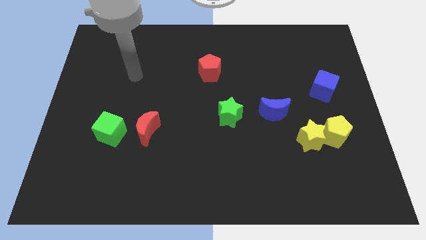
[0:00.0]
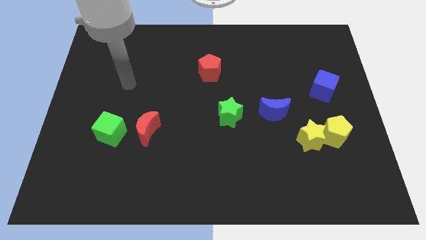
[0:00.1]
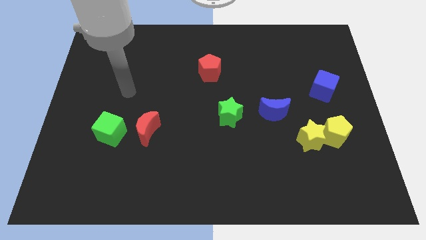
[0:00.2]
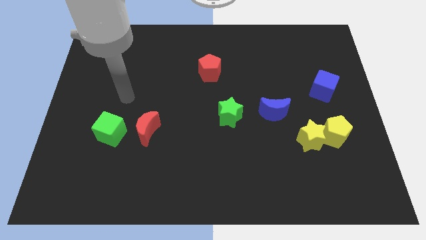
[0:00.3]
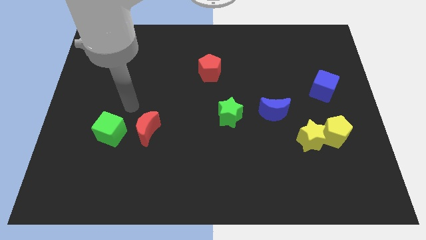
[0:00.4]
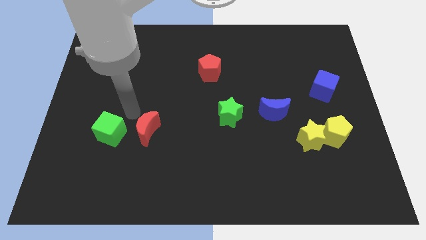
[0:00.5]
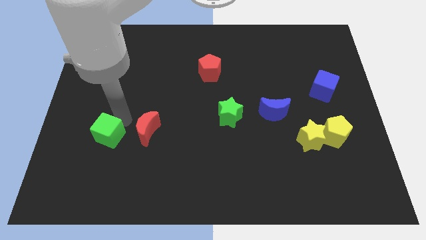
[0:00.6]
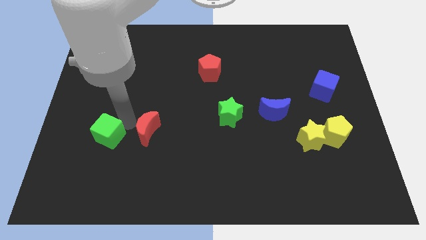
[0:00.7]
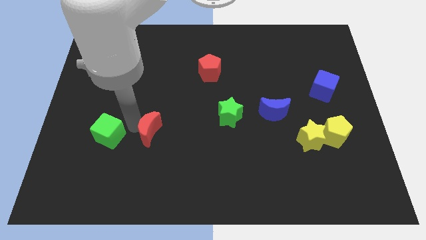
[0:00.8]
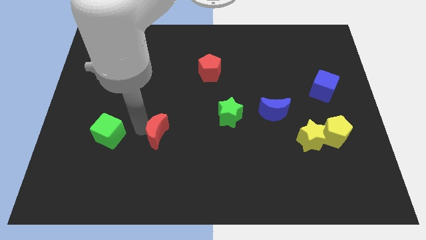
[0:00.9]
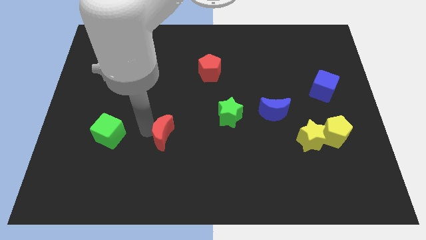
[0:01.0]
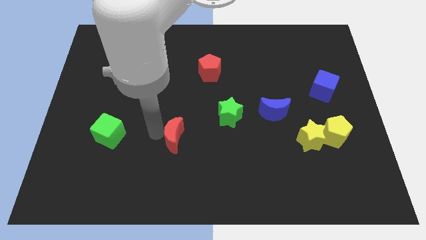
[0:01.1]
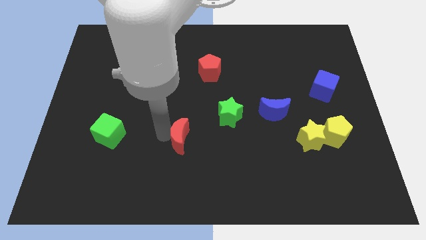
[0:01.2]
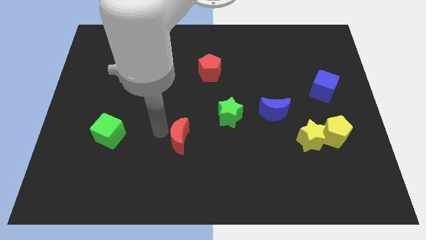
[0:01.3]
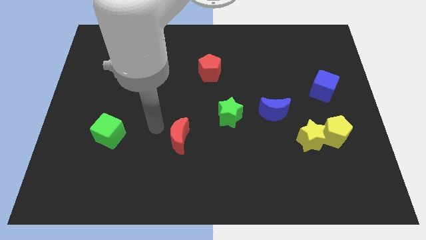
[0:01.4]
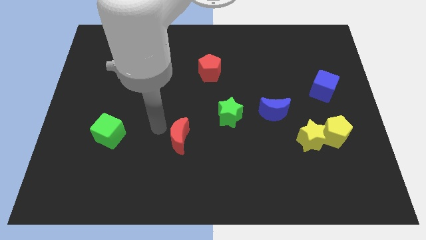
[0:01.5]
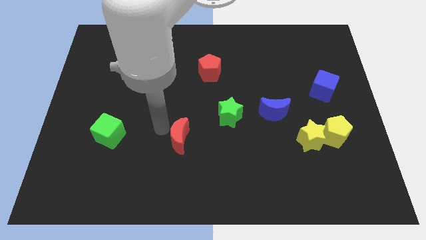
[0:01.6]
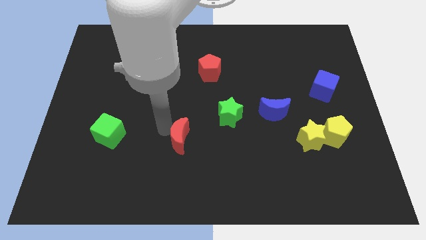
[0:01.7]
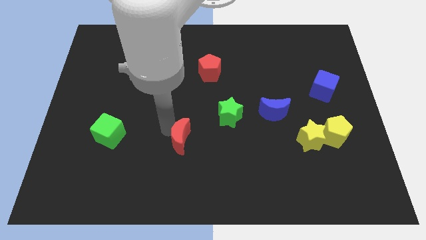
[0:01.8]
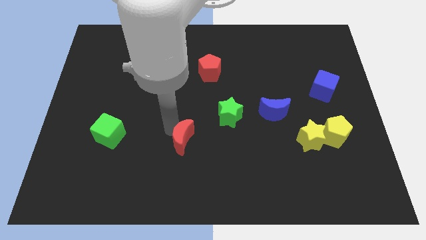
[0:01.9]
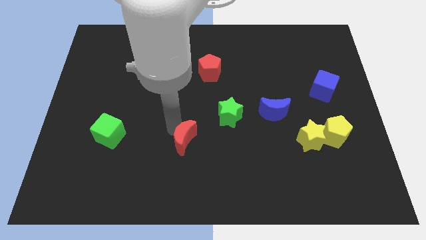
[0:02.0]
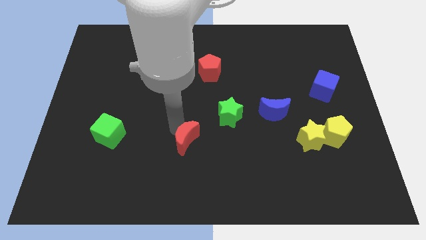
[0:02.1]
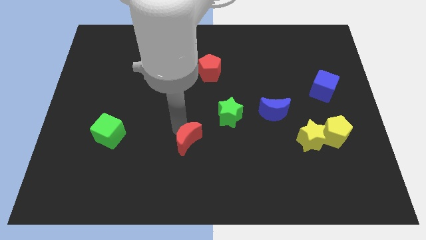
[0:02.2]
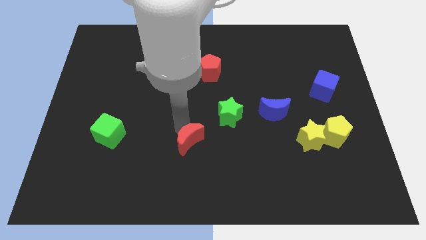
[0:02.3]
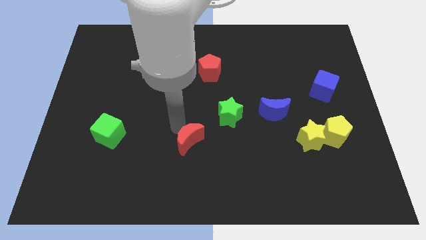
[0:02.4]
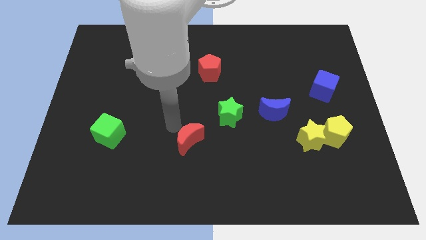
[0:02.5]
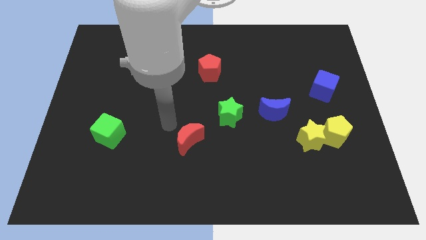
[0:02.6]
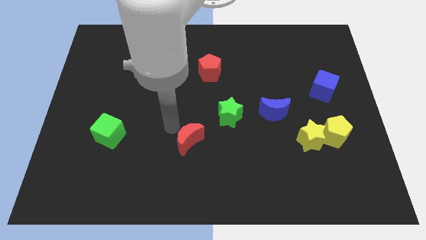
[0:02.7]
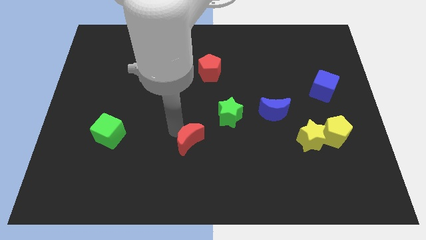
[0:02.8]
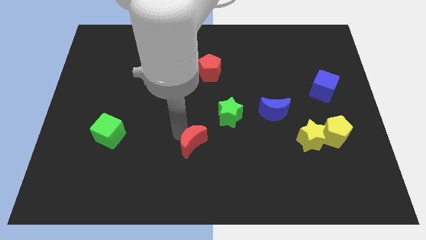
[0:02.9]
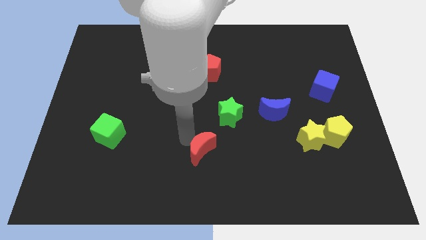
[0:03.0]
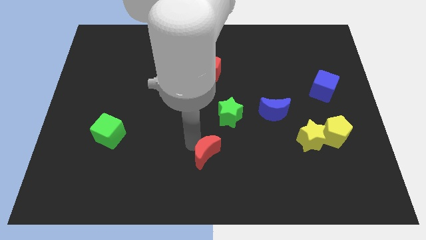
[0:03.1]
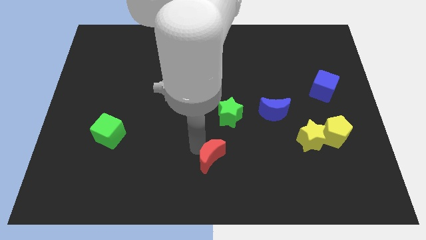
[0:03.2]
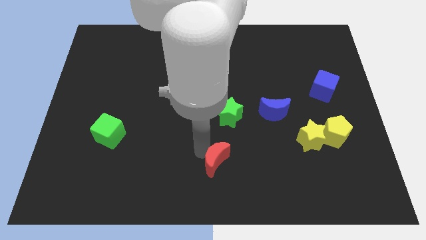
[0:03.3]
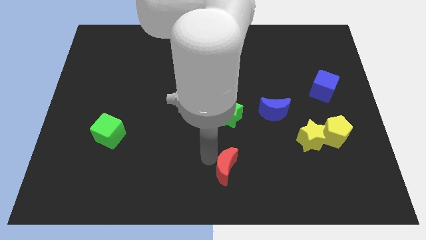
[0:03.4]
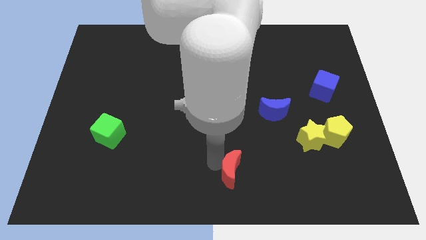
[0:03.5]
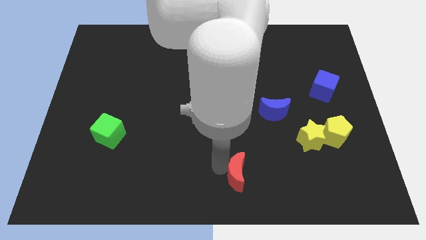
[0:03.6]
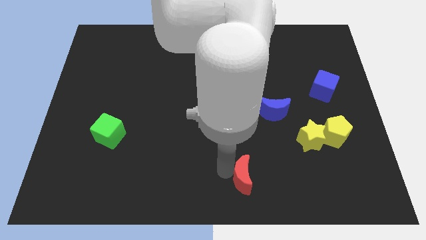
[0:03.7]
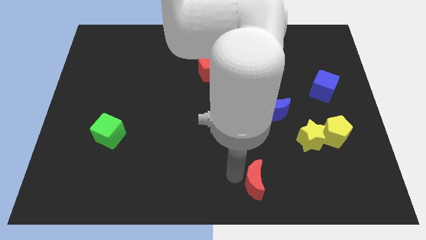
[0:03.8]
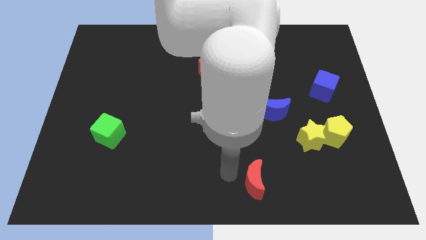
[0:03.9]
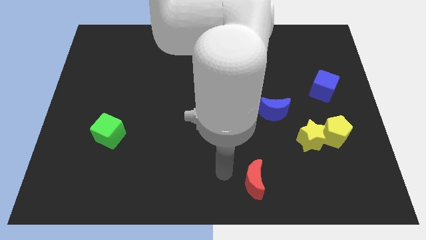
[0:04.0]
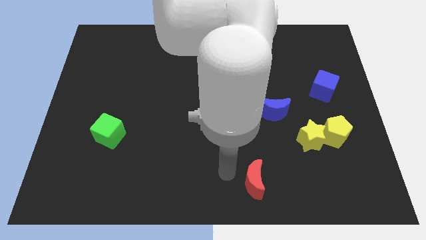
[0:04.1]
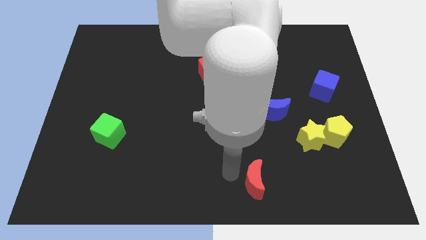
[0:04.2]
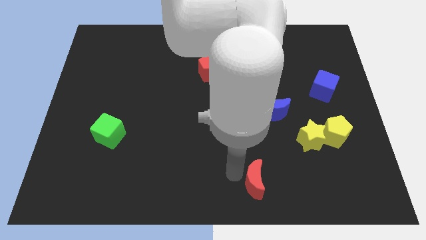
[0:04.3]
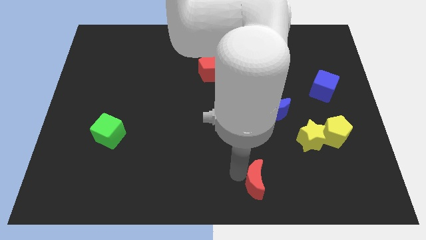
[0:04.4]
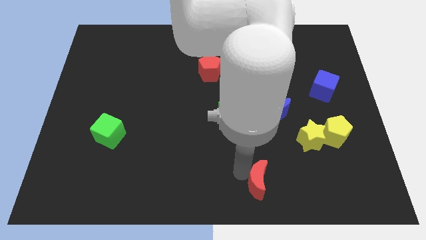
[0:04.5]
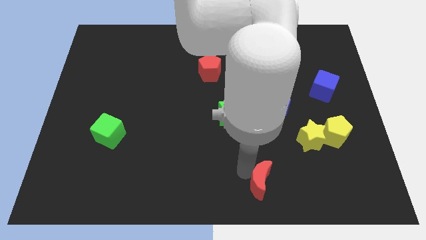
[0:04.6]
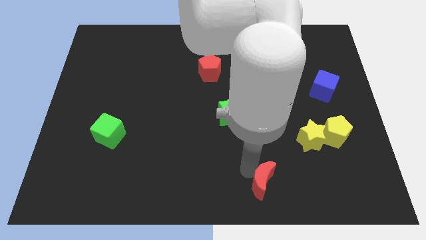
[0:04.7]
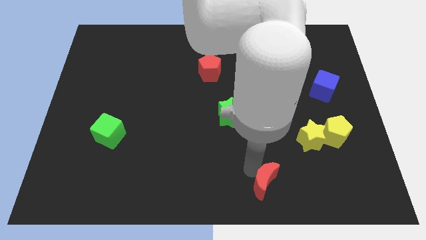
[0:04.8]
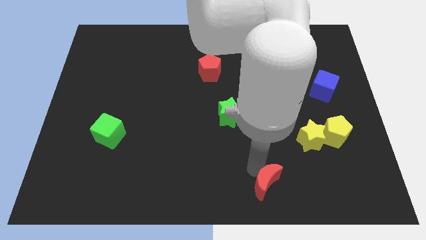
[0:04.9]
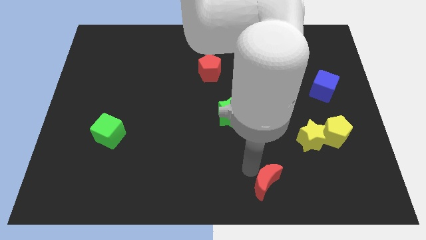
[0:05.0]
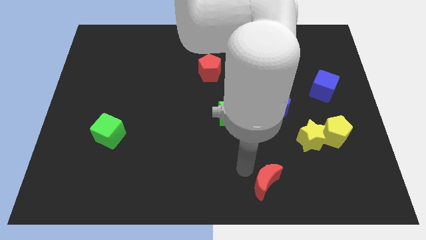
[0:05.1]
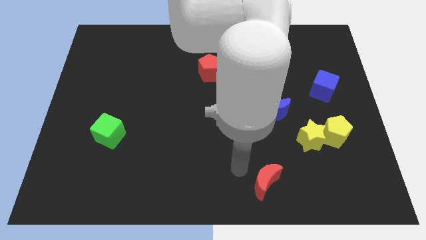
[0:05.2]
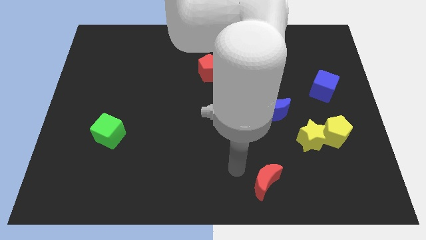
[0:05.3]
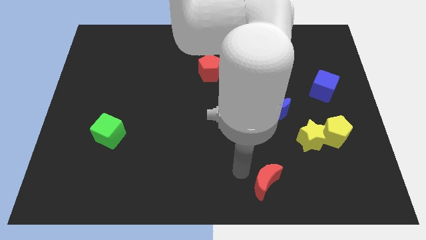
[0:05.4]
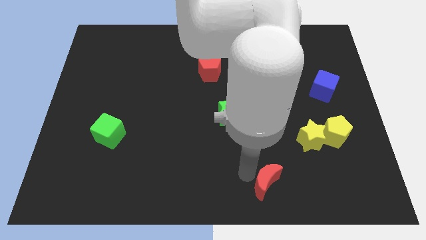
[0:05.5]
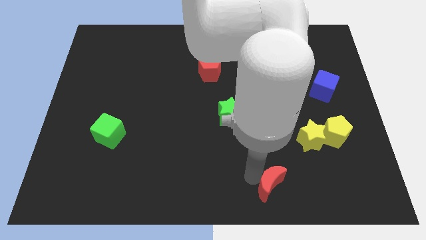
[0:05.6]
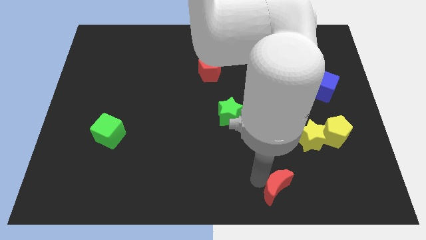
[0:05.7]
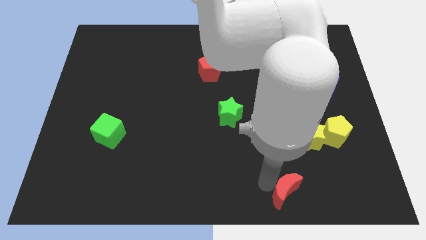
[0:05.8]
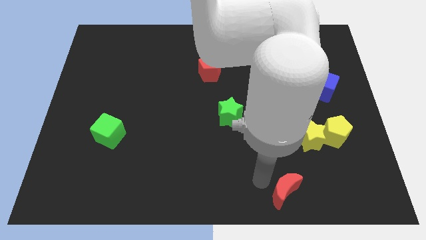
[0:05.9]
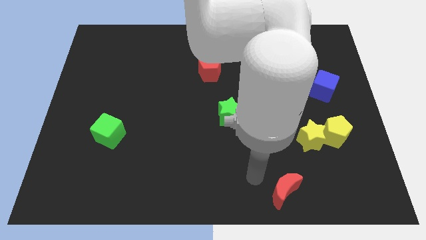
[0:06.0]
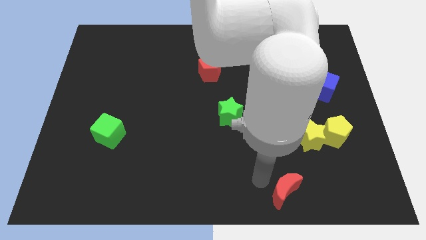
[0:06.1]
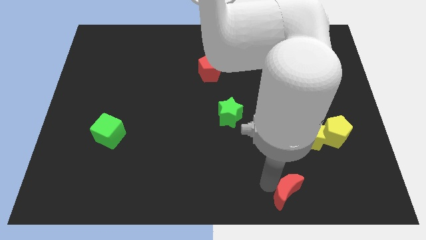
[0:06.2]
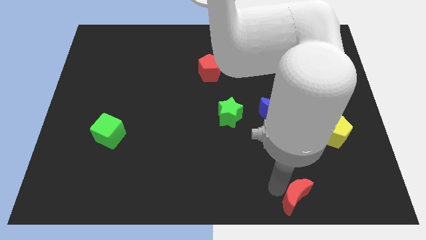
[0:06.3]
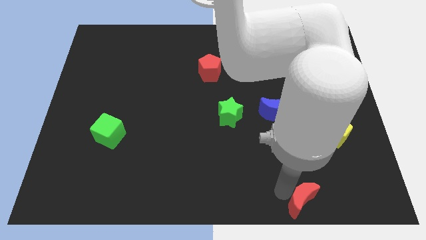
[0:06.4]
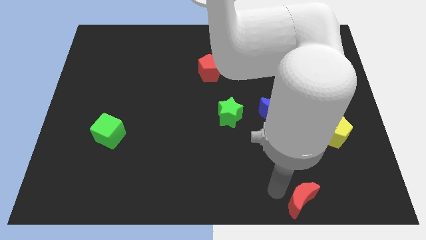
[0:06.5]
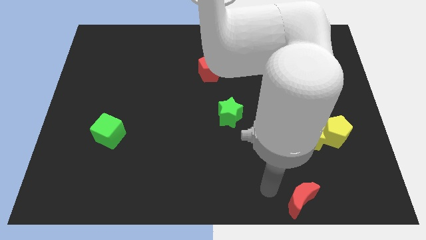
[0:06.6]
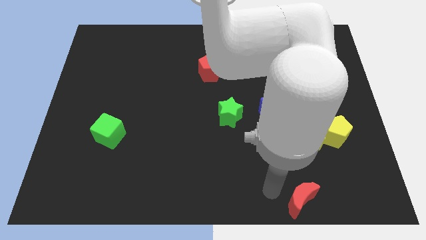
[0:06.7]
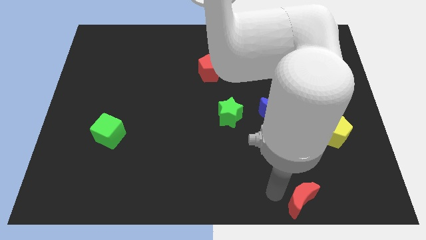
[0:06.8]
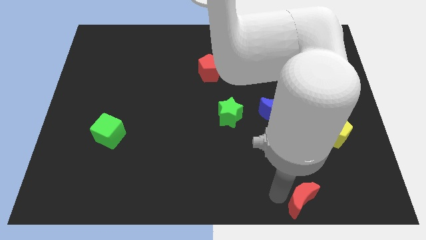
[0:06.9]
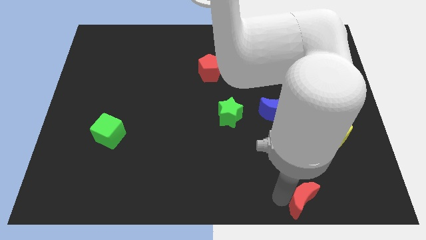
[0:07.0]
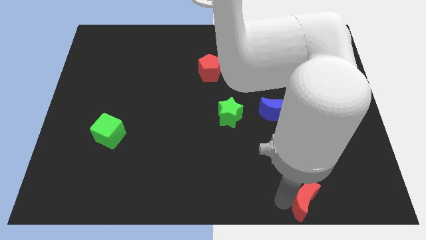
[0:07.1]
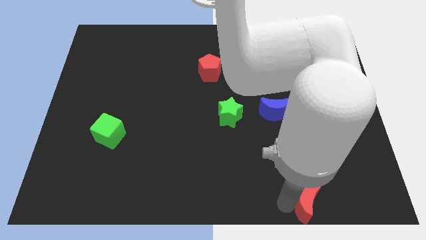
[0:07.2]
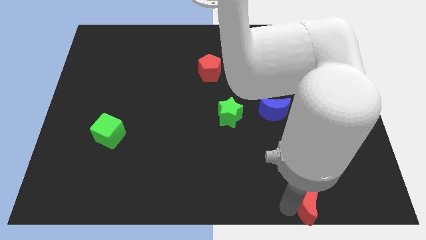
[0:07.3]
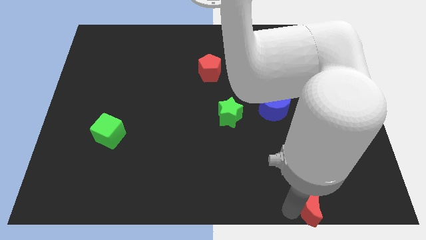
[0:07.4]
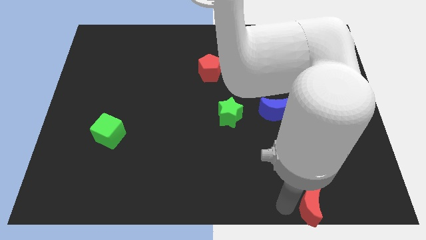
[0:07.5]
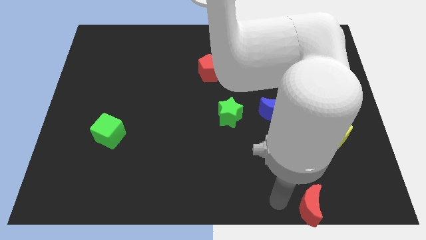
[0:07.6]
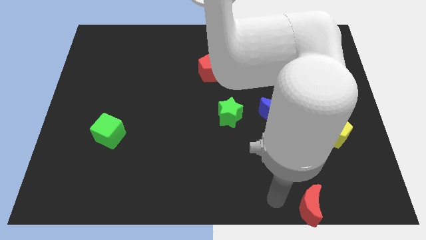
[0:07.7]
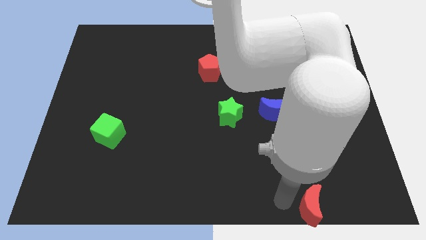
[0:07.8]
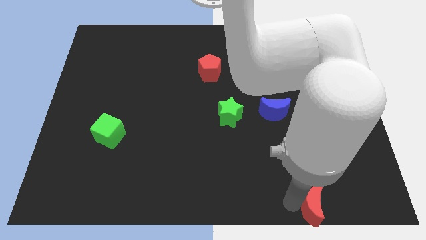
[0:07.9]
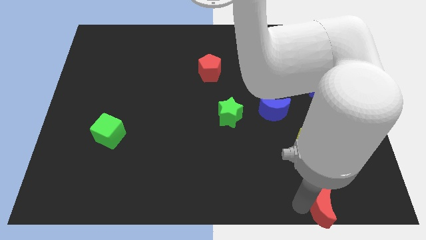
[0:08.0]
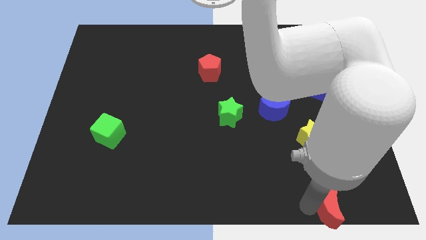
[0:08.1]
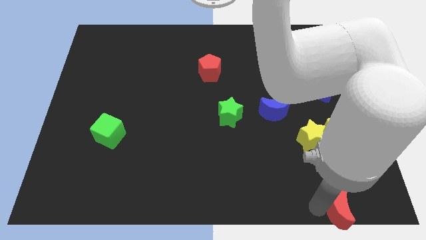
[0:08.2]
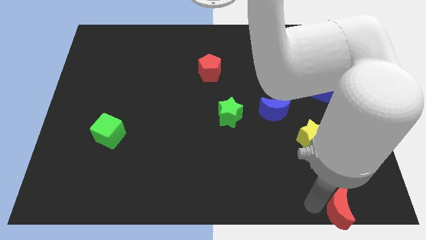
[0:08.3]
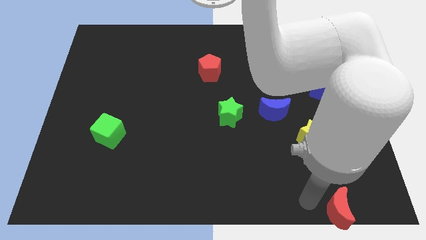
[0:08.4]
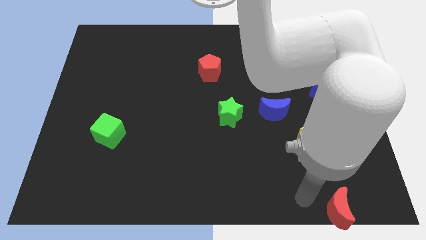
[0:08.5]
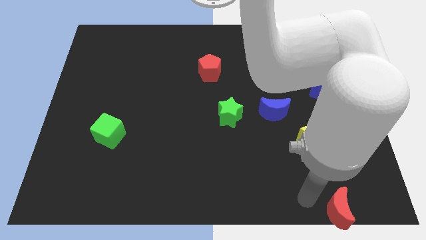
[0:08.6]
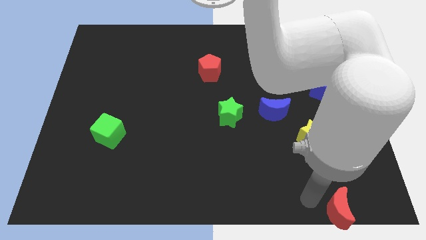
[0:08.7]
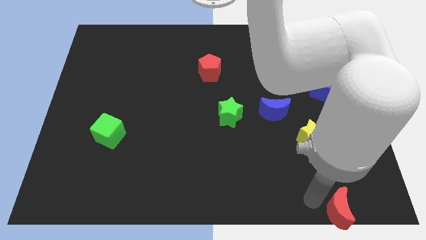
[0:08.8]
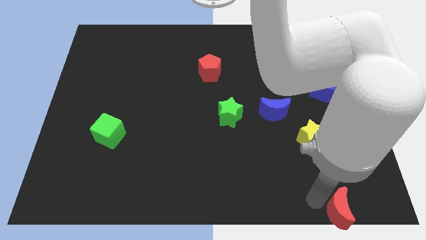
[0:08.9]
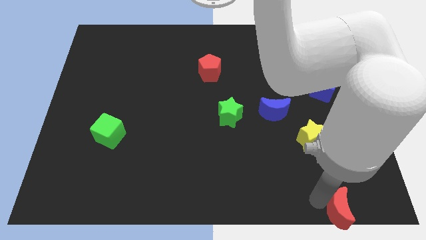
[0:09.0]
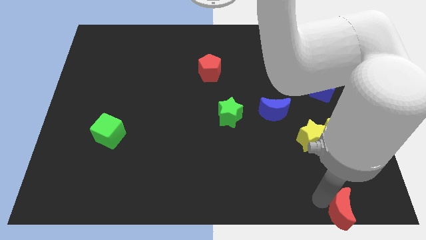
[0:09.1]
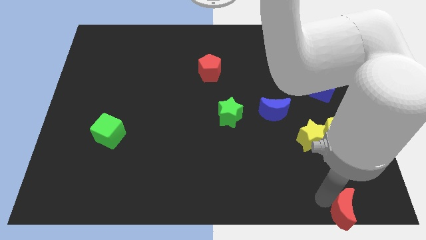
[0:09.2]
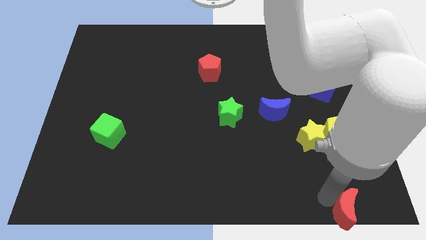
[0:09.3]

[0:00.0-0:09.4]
slide the red moon to the bottom right
